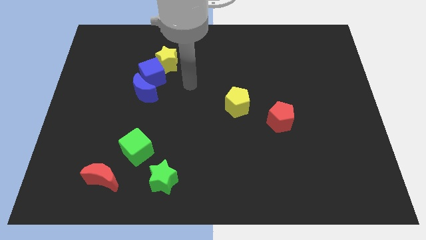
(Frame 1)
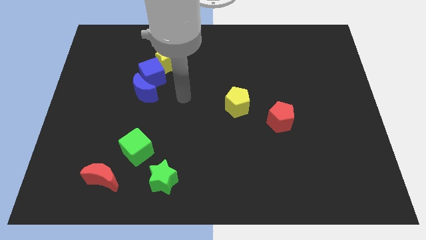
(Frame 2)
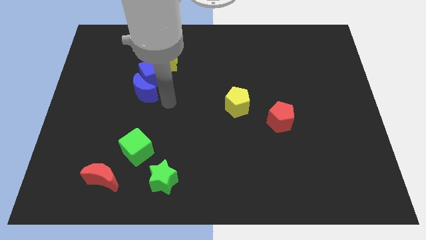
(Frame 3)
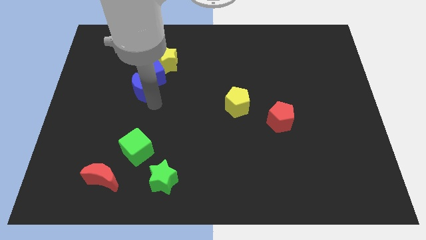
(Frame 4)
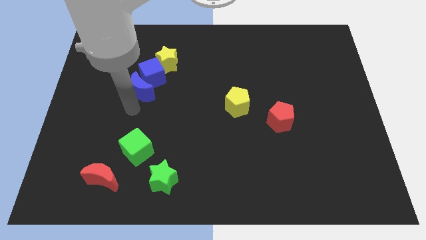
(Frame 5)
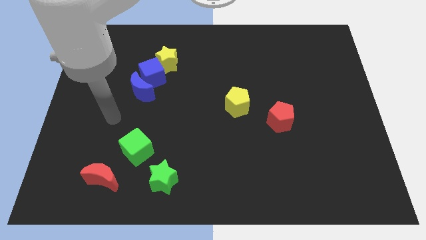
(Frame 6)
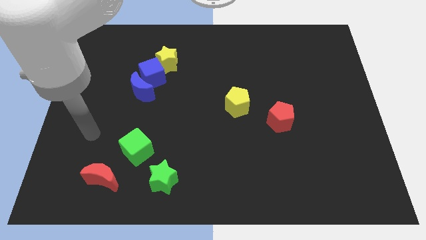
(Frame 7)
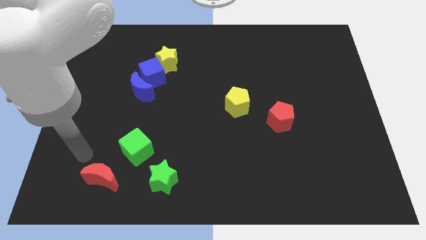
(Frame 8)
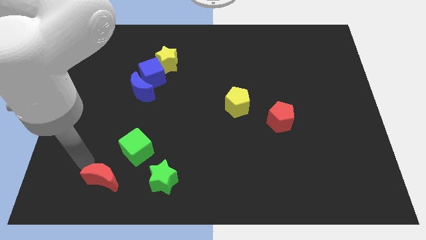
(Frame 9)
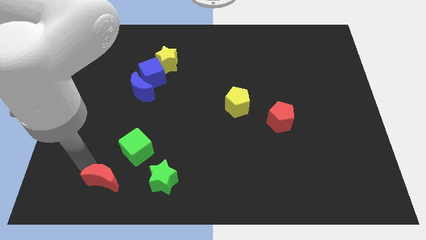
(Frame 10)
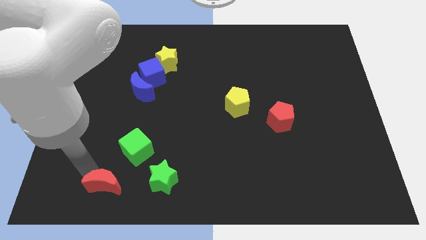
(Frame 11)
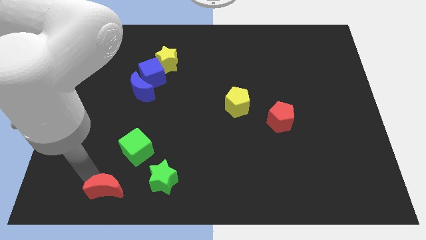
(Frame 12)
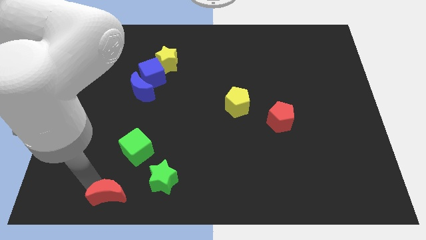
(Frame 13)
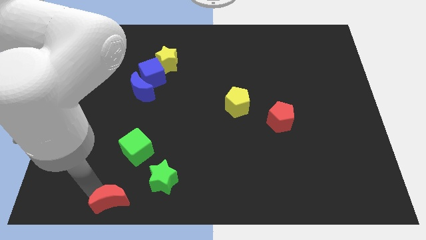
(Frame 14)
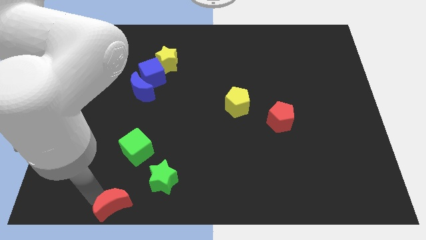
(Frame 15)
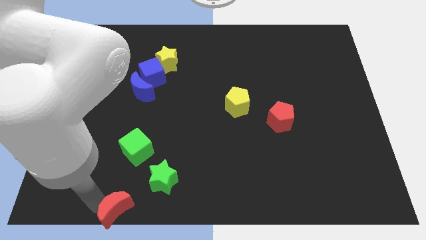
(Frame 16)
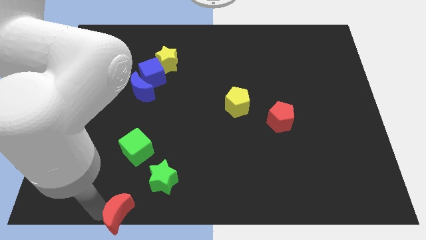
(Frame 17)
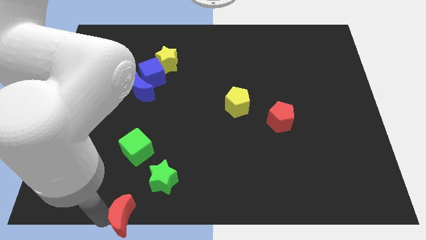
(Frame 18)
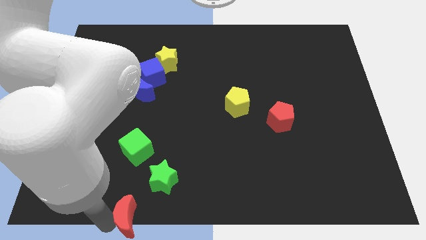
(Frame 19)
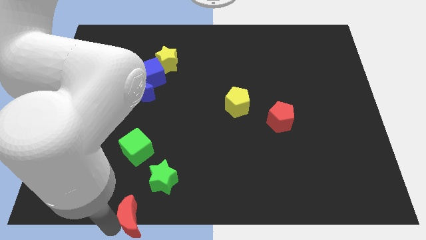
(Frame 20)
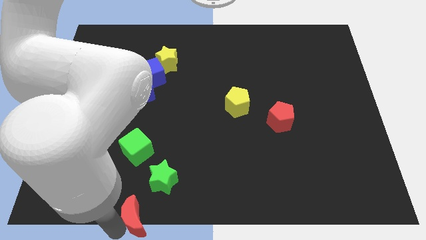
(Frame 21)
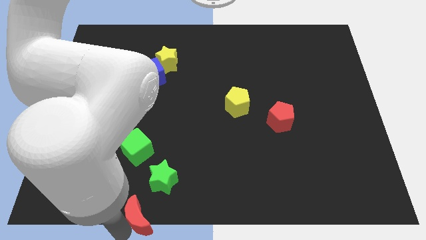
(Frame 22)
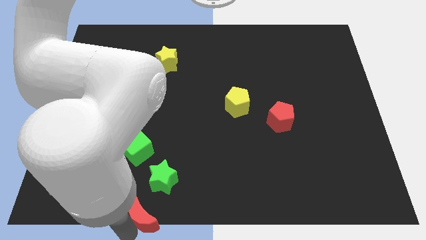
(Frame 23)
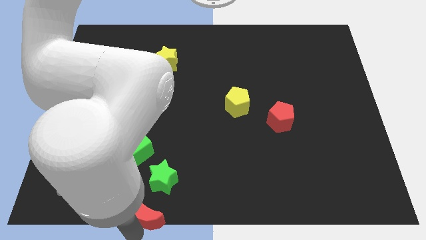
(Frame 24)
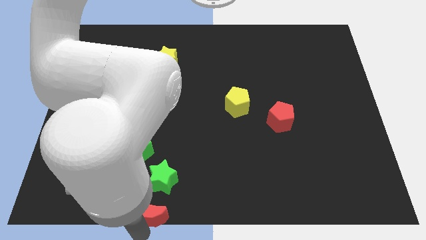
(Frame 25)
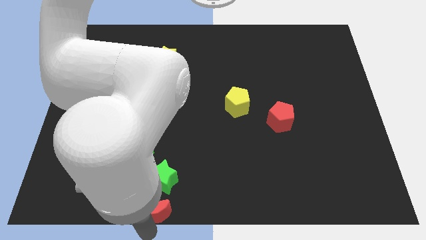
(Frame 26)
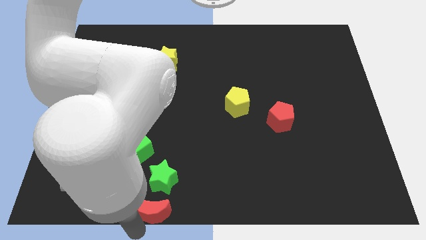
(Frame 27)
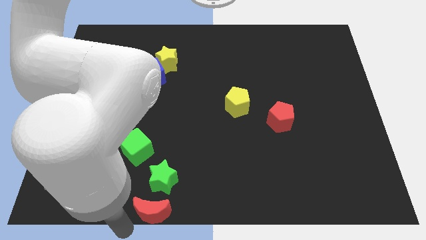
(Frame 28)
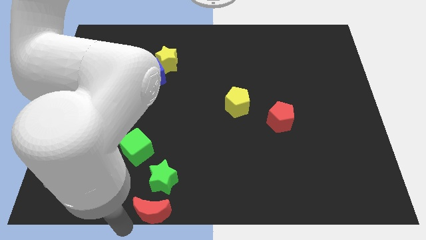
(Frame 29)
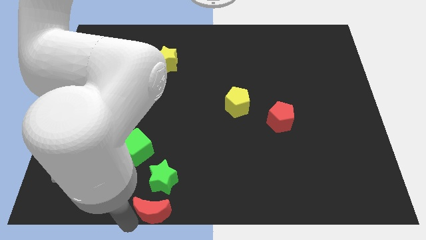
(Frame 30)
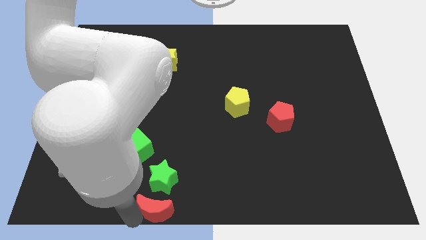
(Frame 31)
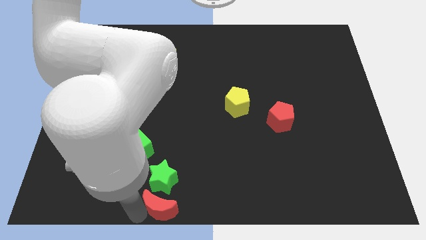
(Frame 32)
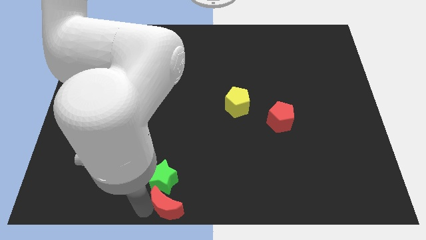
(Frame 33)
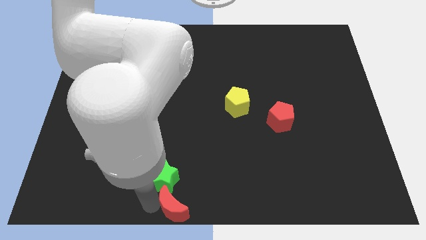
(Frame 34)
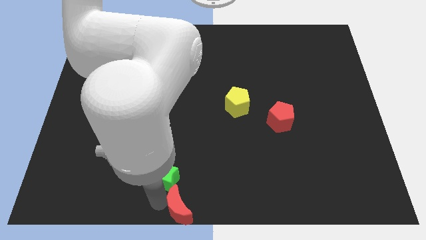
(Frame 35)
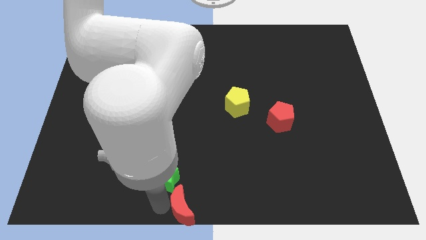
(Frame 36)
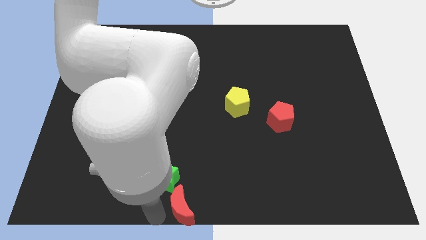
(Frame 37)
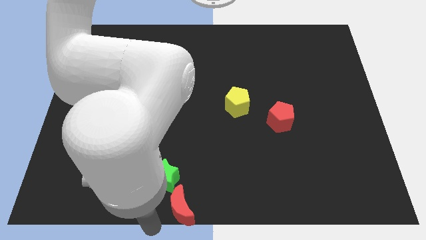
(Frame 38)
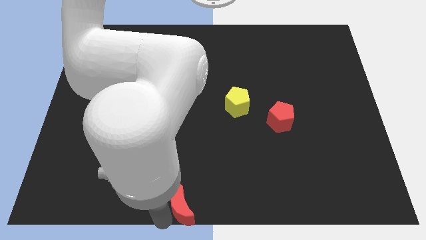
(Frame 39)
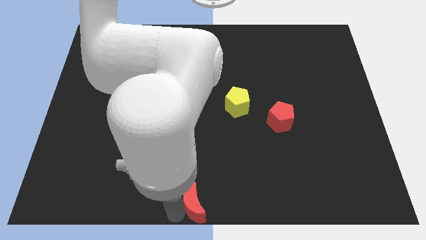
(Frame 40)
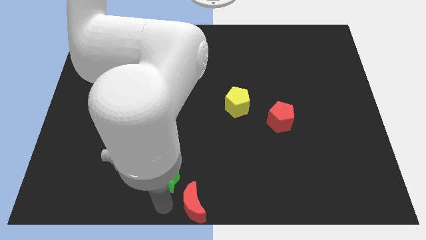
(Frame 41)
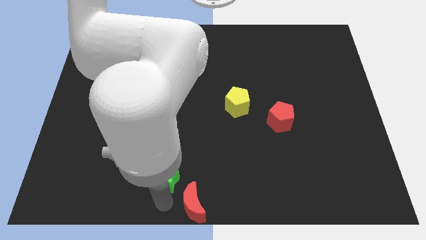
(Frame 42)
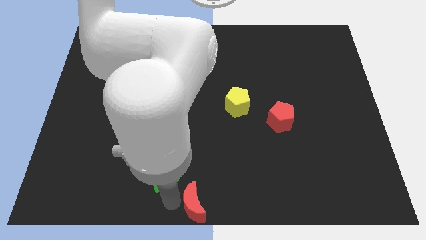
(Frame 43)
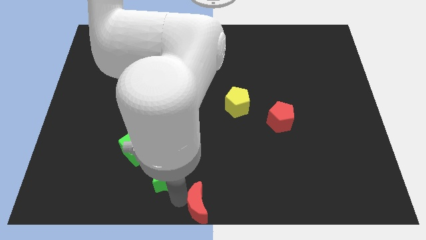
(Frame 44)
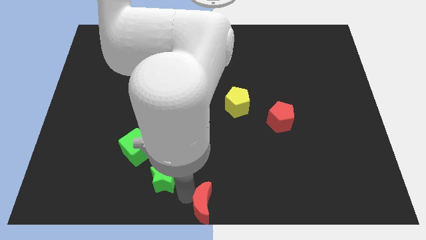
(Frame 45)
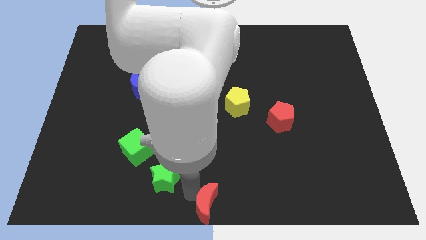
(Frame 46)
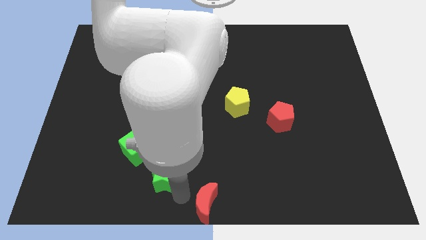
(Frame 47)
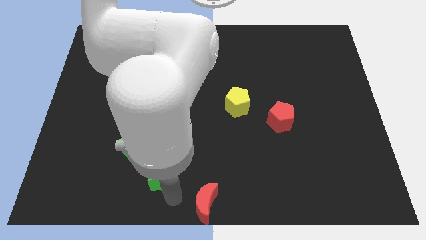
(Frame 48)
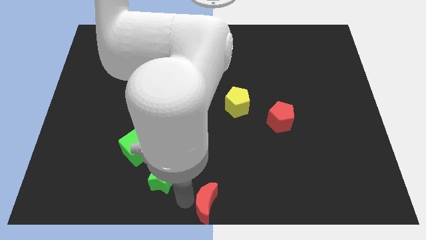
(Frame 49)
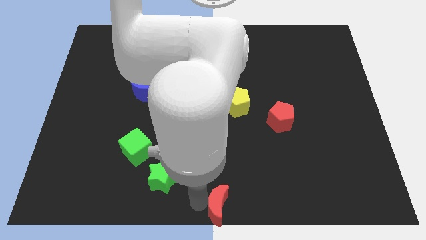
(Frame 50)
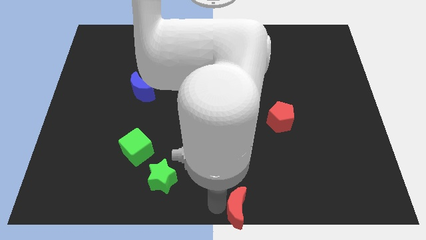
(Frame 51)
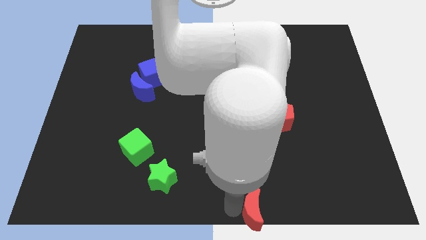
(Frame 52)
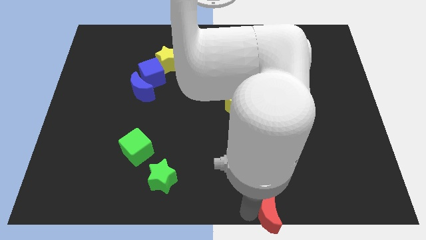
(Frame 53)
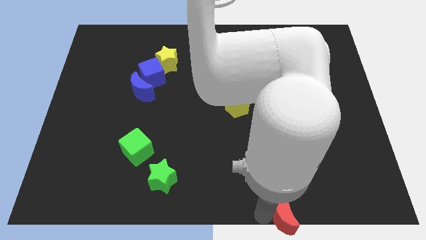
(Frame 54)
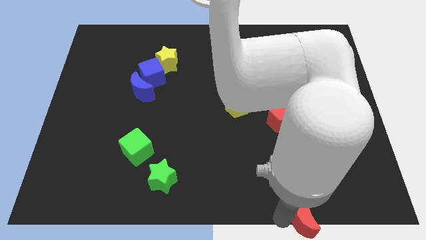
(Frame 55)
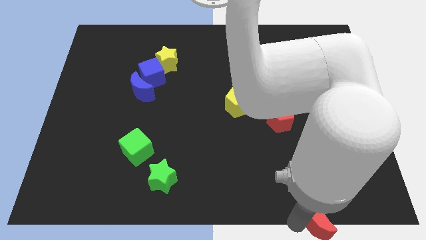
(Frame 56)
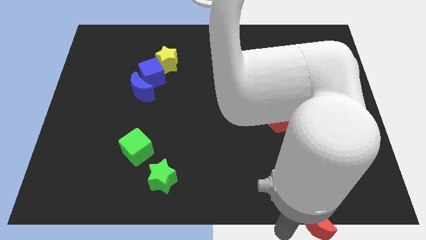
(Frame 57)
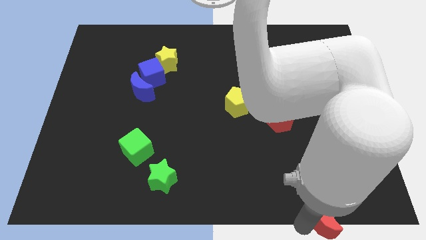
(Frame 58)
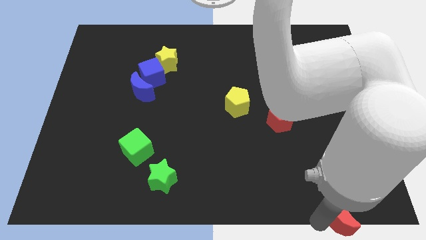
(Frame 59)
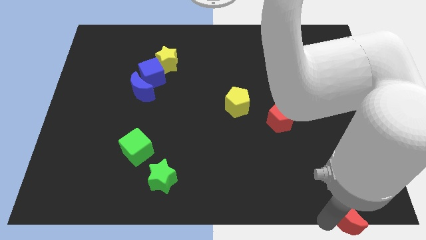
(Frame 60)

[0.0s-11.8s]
move the red moon to the lower right corner
